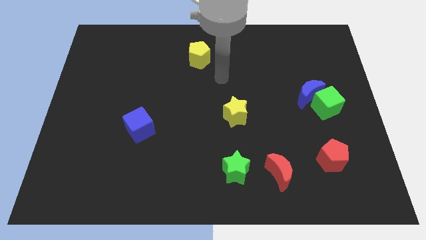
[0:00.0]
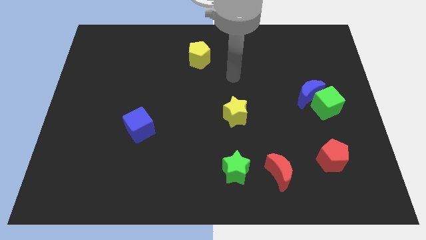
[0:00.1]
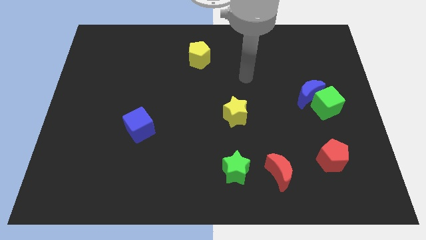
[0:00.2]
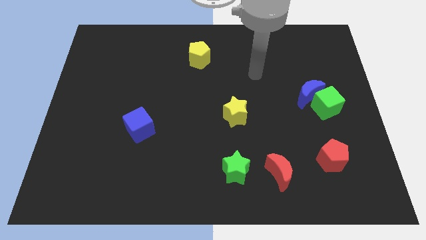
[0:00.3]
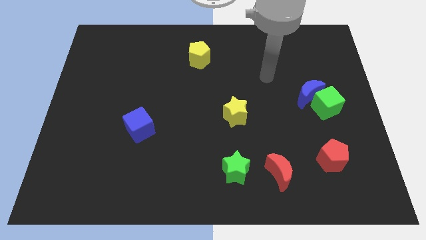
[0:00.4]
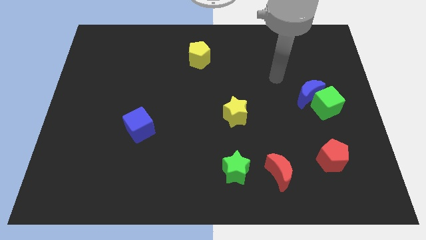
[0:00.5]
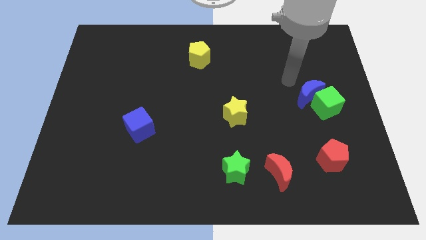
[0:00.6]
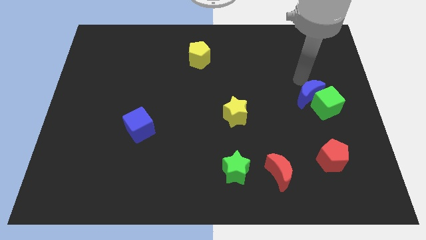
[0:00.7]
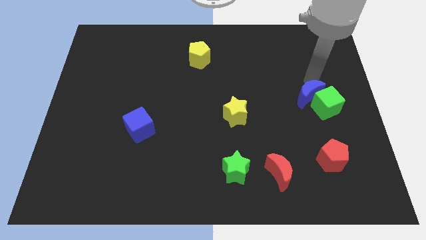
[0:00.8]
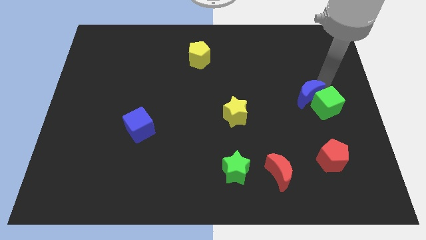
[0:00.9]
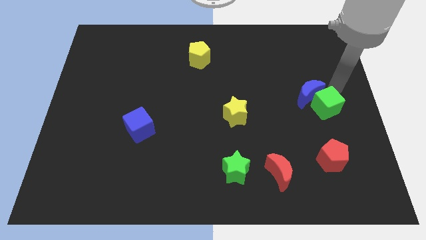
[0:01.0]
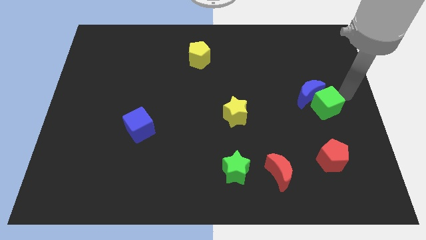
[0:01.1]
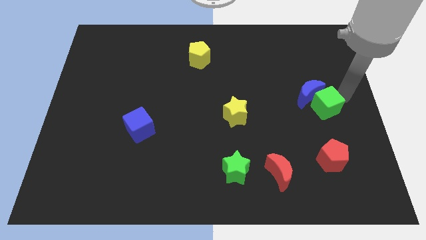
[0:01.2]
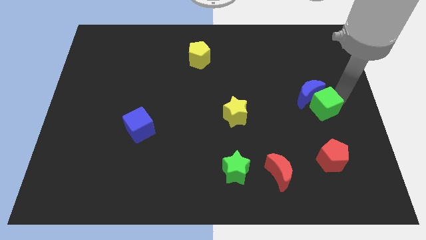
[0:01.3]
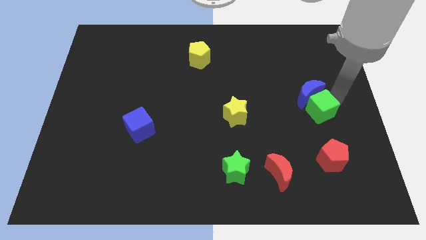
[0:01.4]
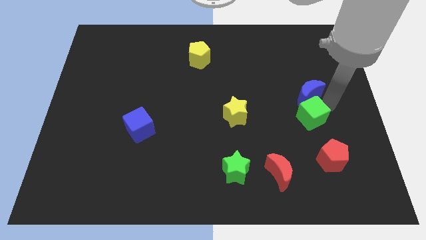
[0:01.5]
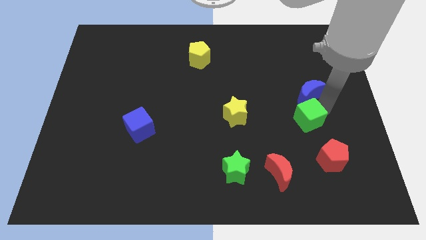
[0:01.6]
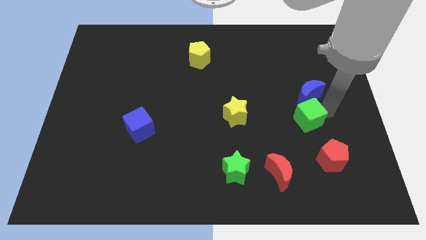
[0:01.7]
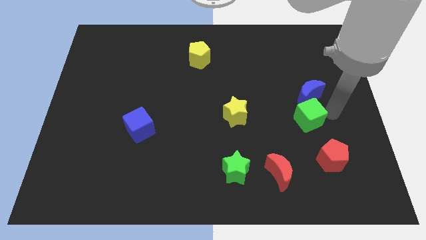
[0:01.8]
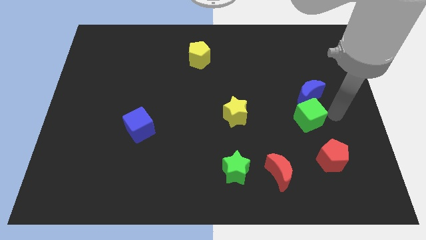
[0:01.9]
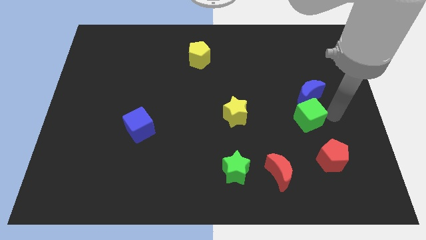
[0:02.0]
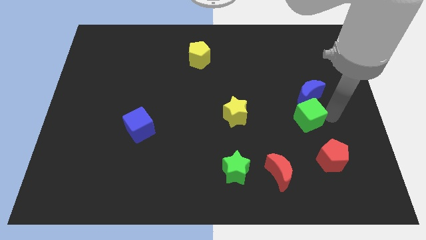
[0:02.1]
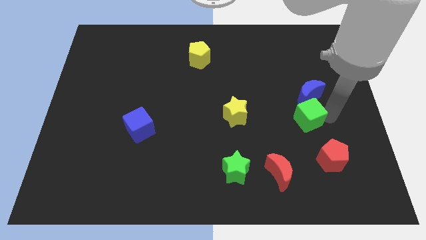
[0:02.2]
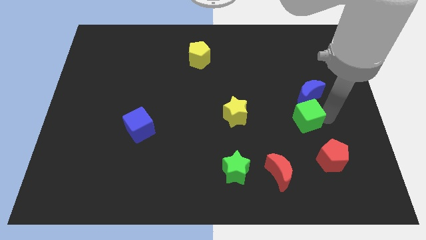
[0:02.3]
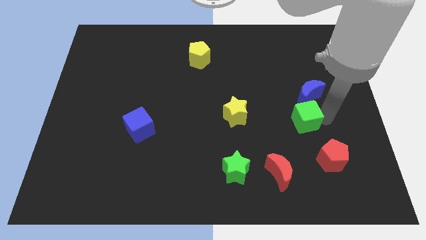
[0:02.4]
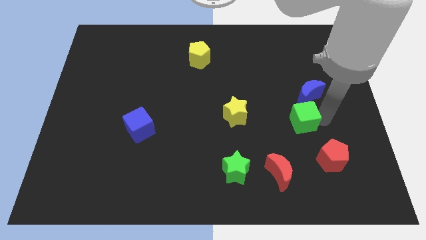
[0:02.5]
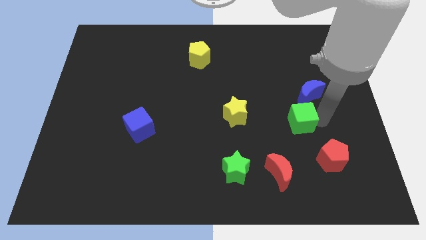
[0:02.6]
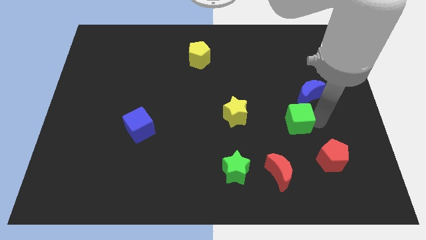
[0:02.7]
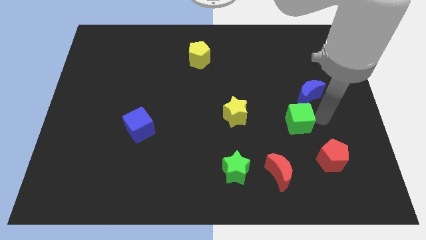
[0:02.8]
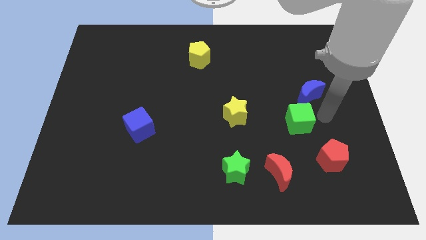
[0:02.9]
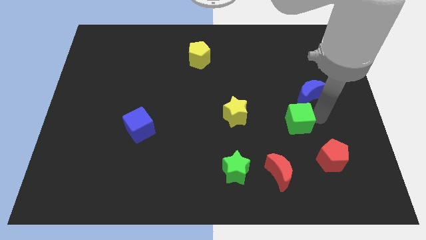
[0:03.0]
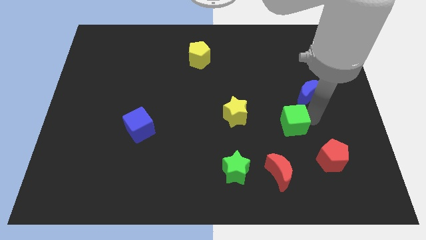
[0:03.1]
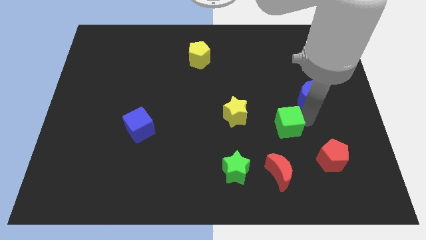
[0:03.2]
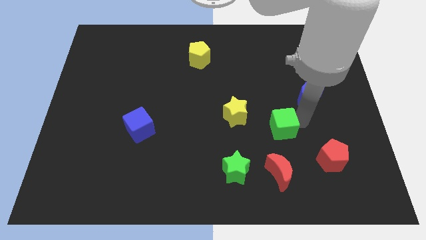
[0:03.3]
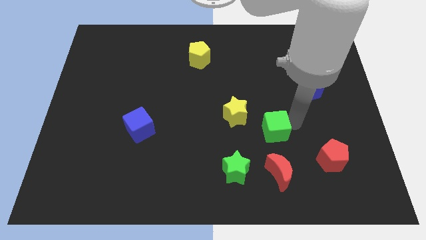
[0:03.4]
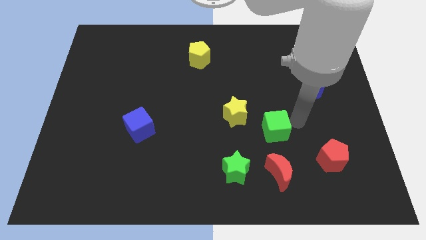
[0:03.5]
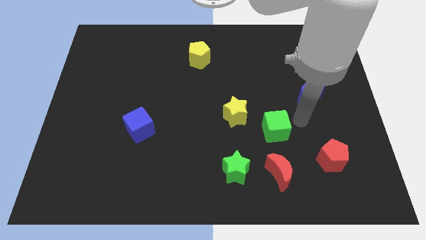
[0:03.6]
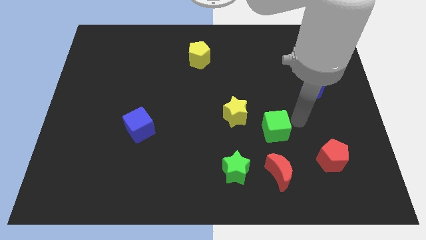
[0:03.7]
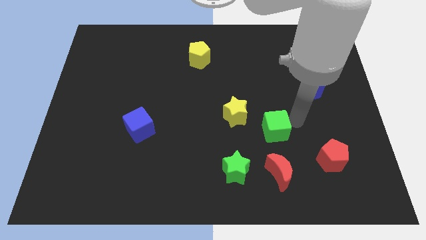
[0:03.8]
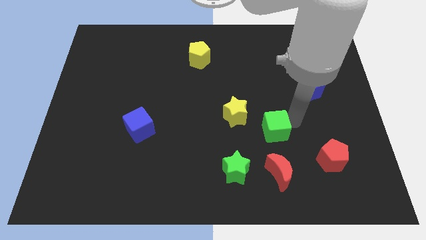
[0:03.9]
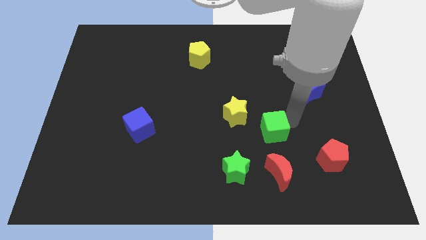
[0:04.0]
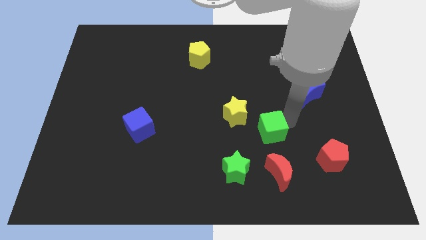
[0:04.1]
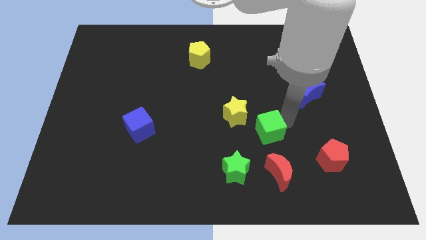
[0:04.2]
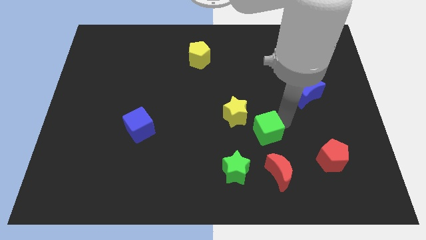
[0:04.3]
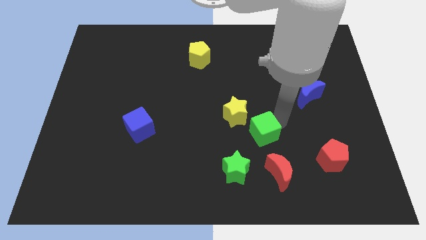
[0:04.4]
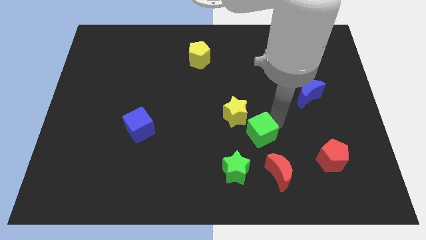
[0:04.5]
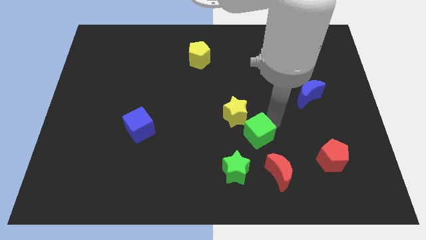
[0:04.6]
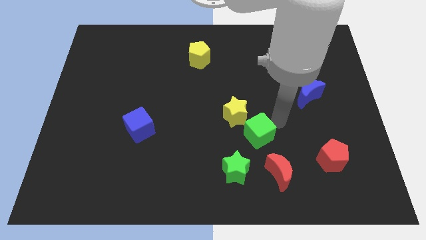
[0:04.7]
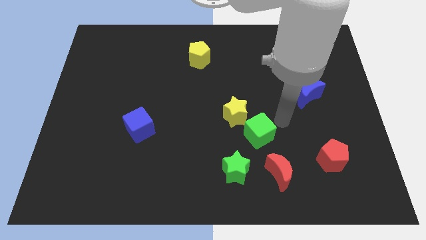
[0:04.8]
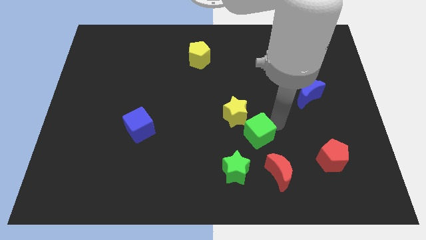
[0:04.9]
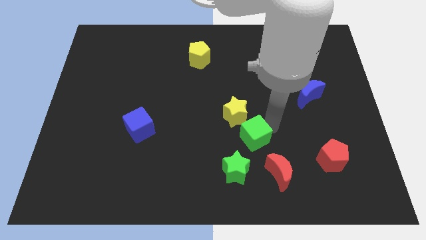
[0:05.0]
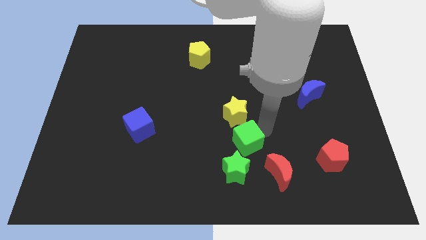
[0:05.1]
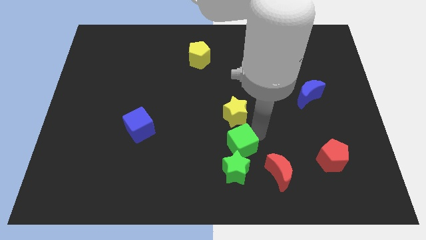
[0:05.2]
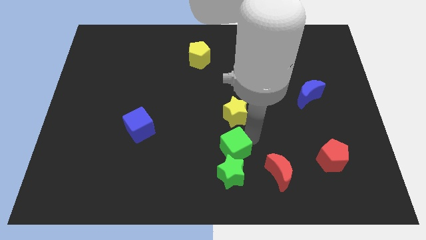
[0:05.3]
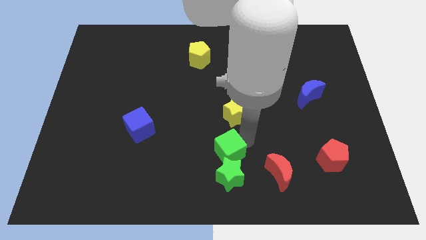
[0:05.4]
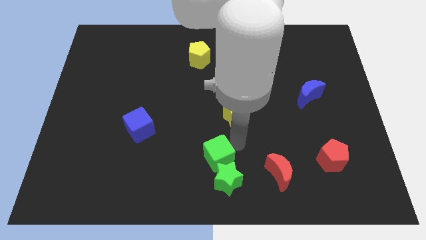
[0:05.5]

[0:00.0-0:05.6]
push the green cube to the bottom

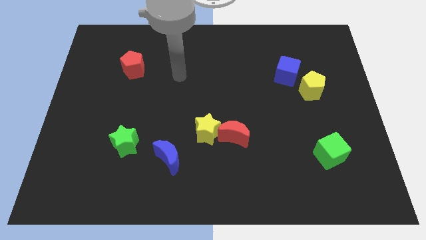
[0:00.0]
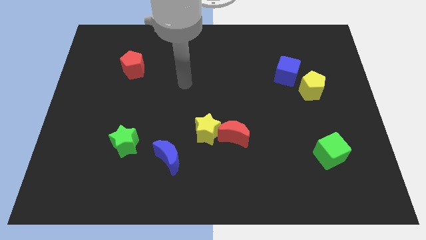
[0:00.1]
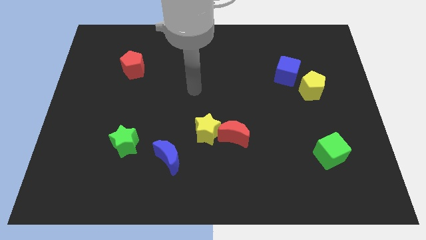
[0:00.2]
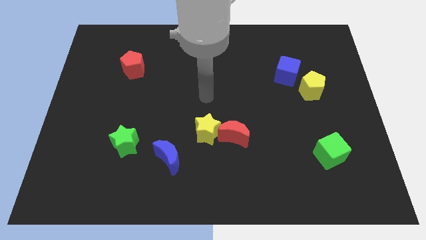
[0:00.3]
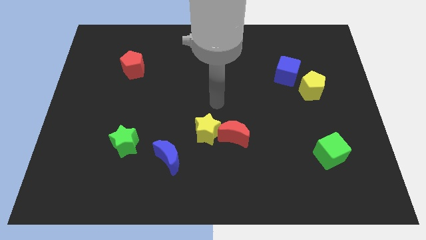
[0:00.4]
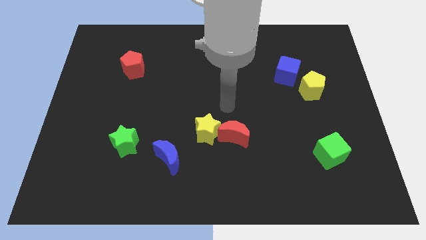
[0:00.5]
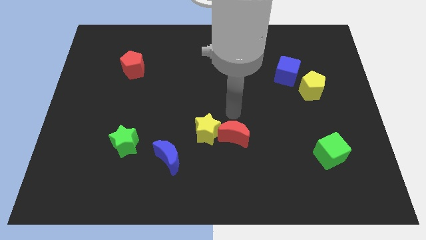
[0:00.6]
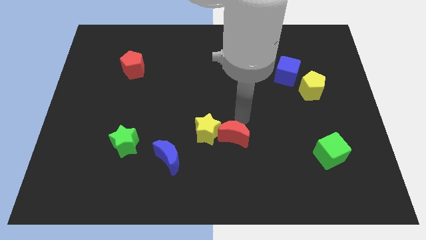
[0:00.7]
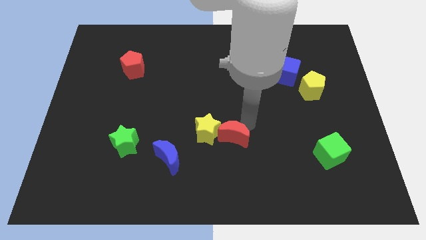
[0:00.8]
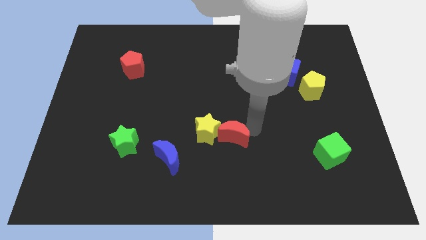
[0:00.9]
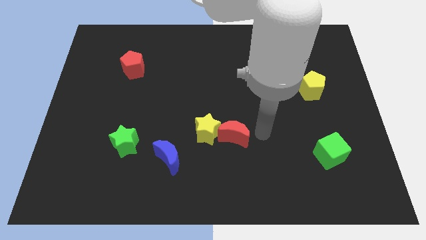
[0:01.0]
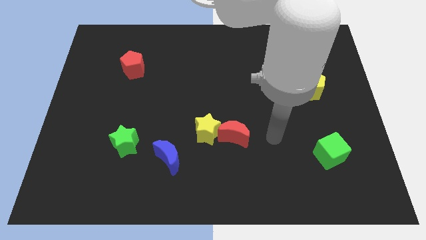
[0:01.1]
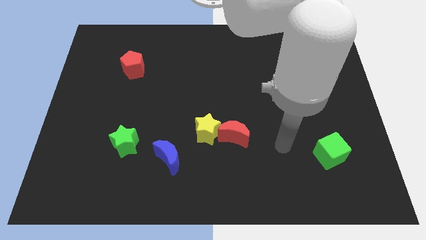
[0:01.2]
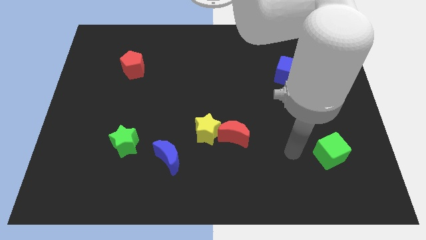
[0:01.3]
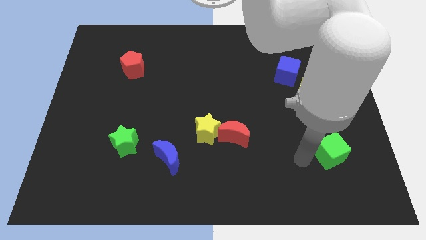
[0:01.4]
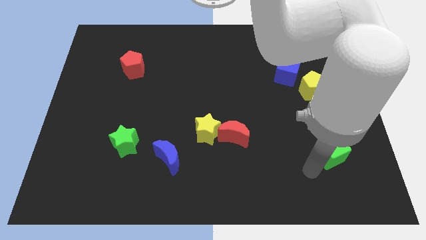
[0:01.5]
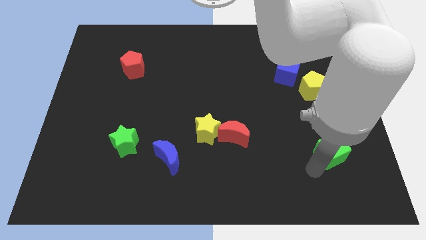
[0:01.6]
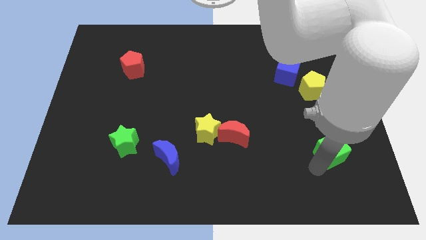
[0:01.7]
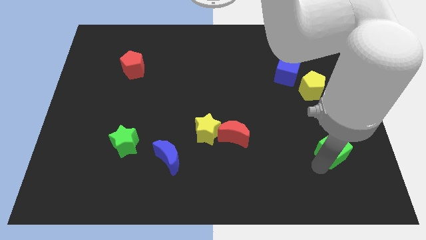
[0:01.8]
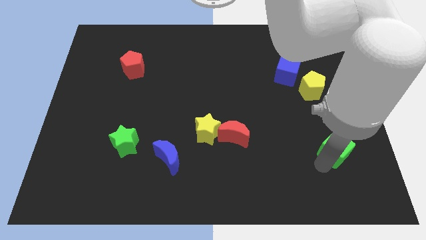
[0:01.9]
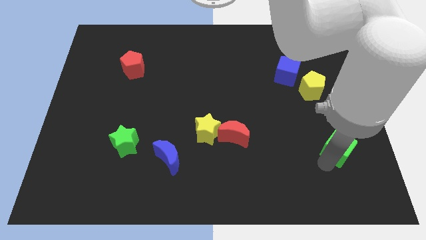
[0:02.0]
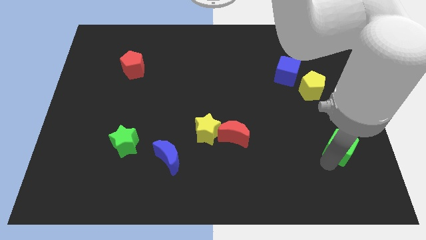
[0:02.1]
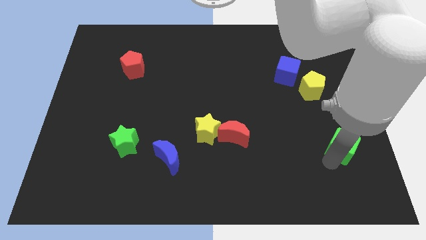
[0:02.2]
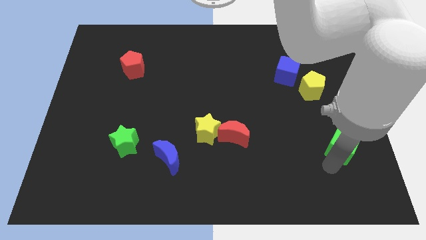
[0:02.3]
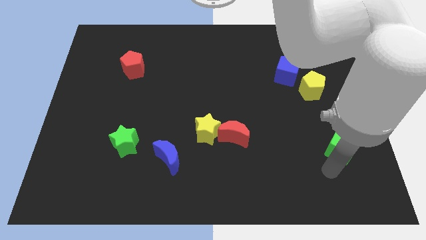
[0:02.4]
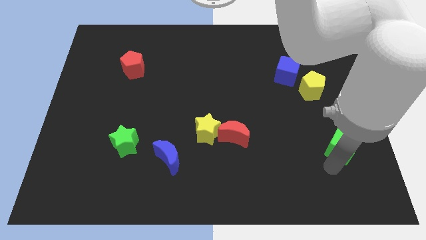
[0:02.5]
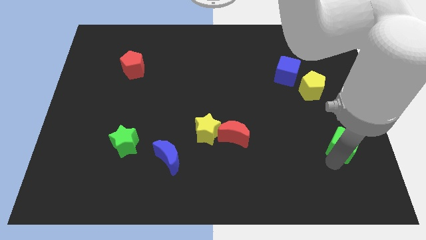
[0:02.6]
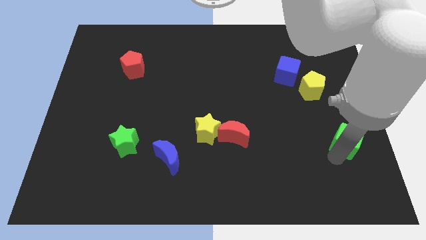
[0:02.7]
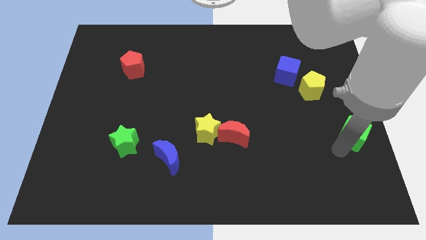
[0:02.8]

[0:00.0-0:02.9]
put the green cube to the right side
